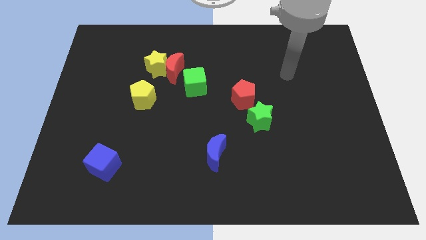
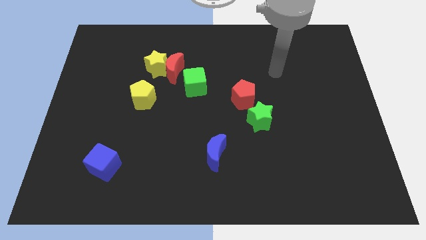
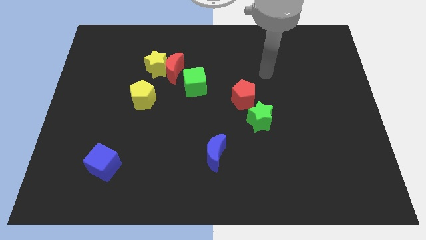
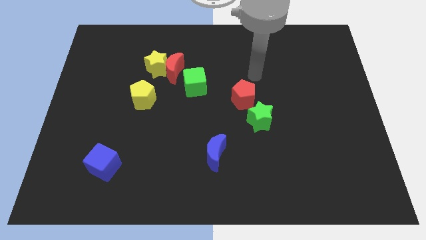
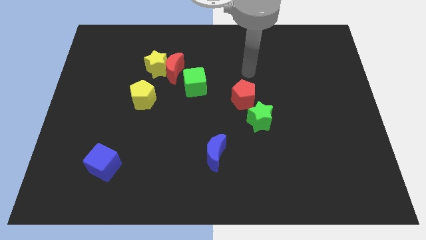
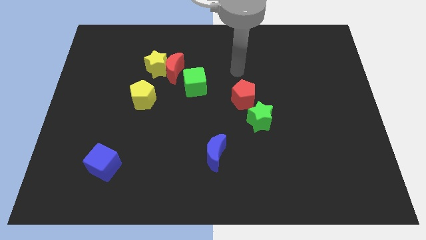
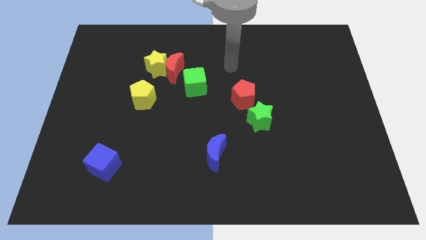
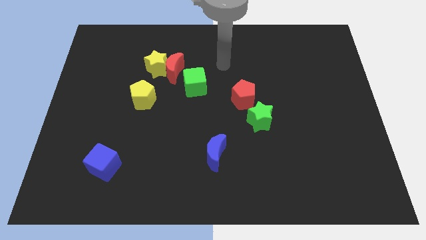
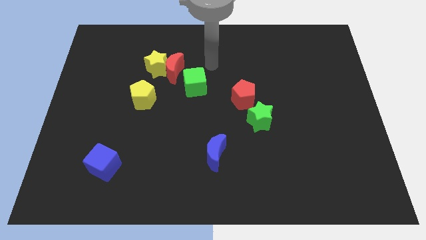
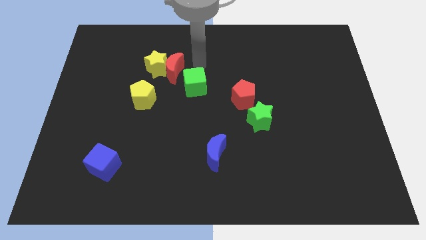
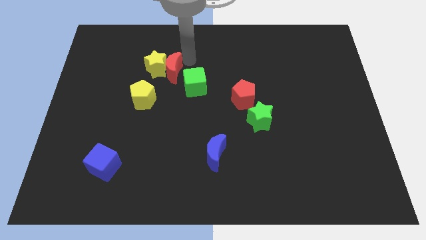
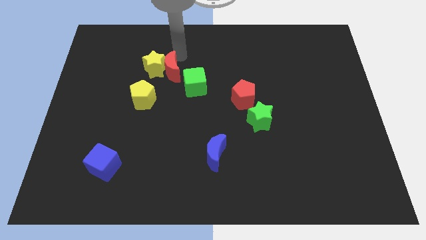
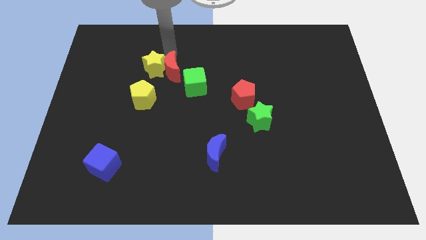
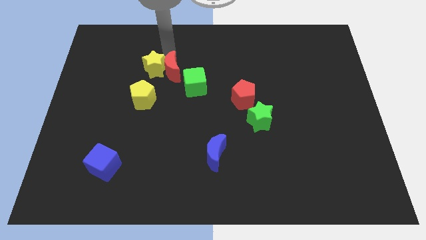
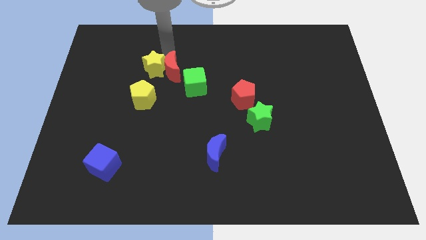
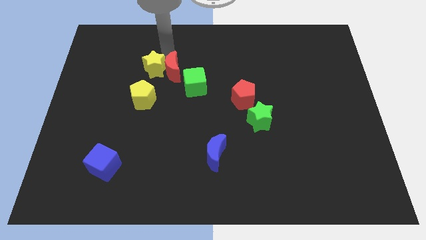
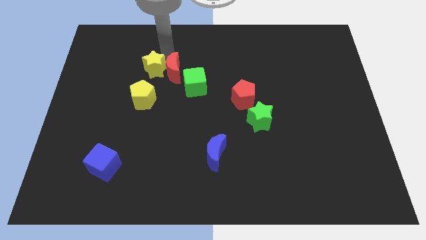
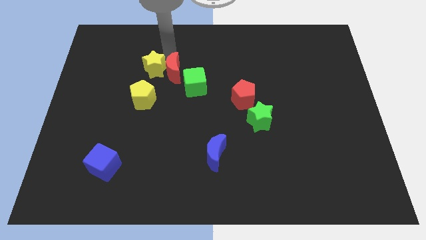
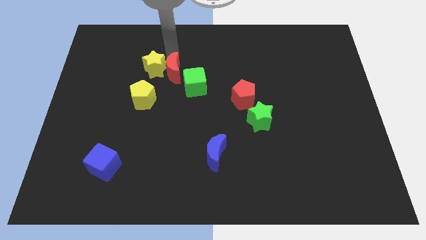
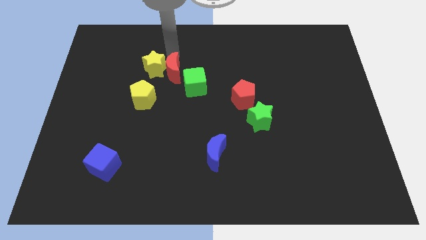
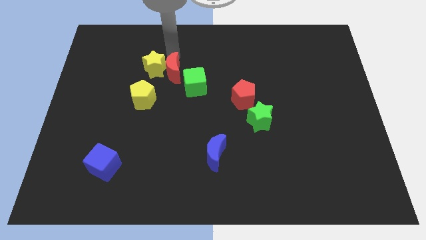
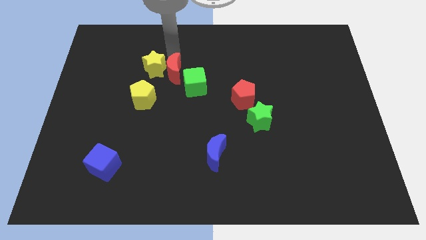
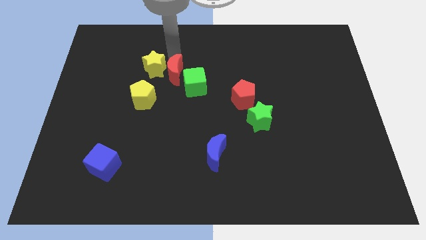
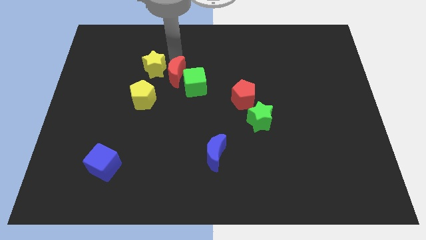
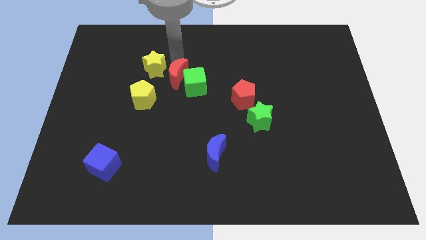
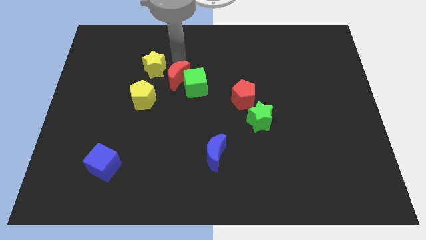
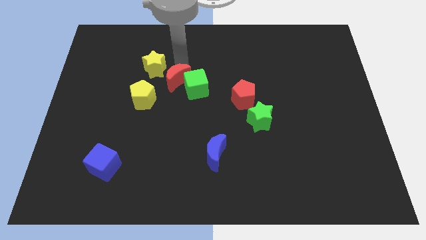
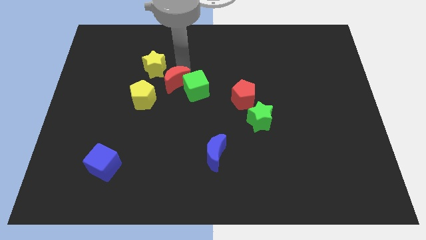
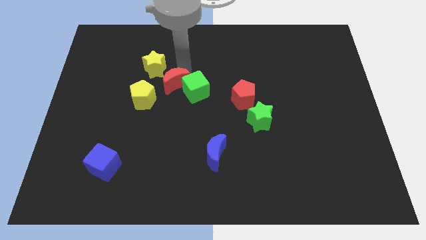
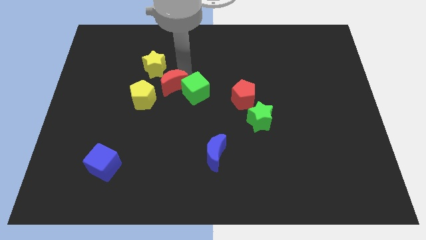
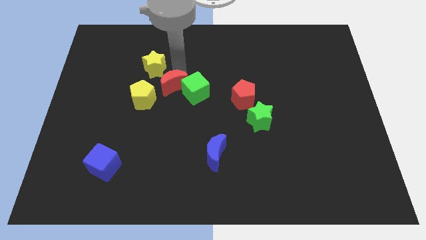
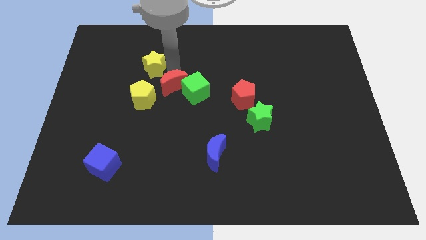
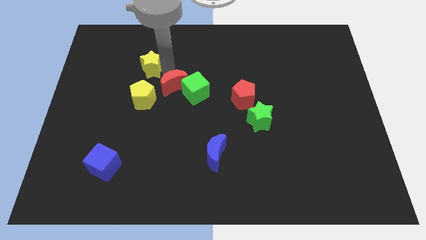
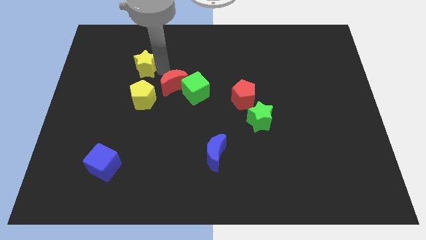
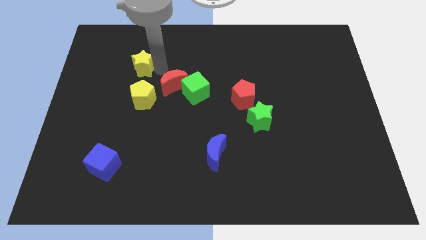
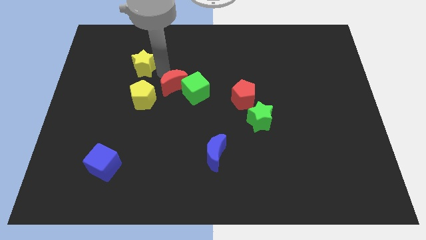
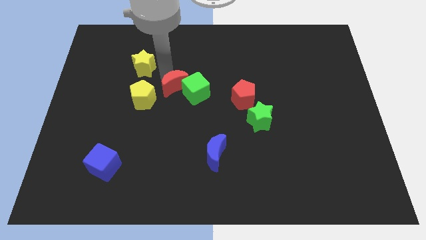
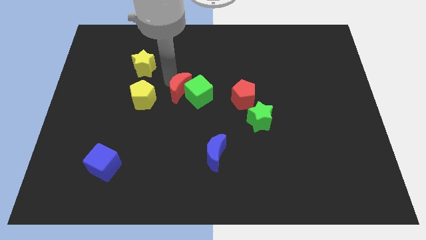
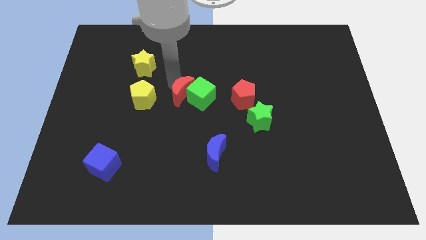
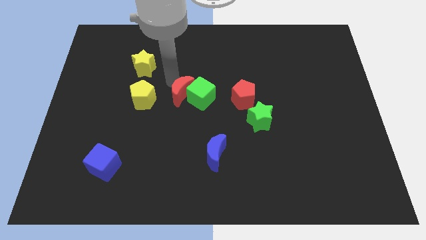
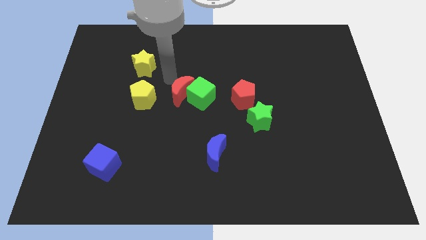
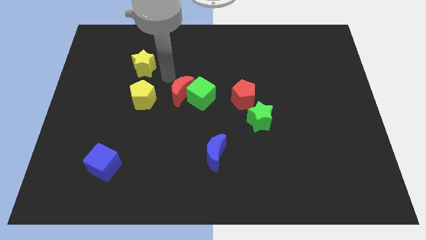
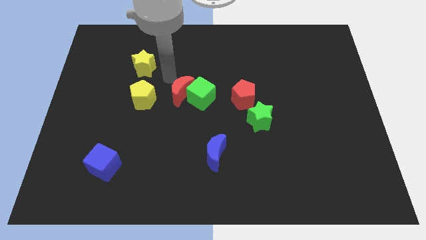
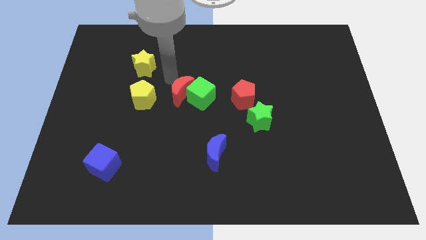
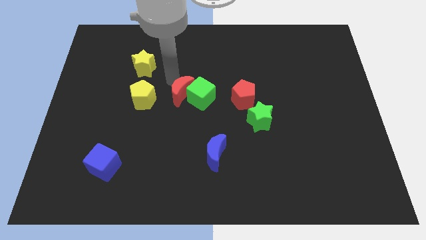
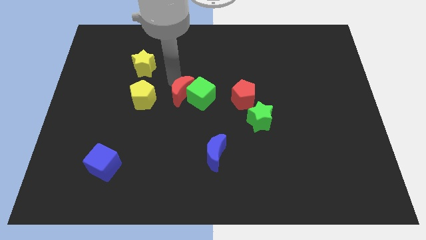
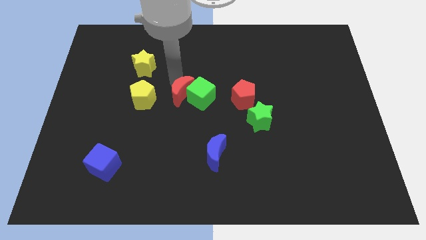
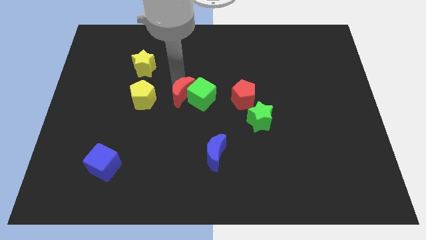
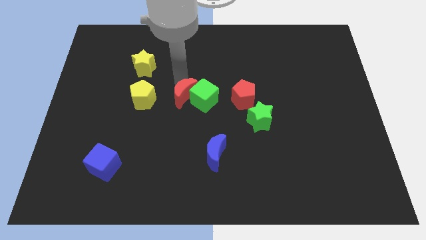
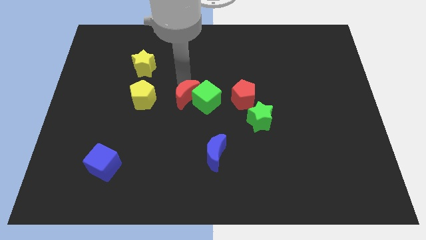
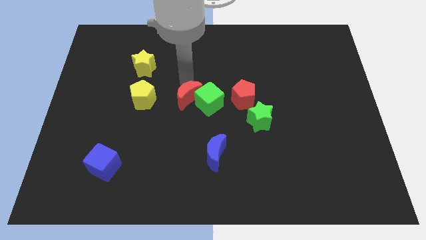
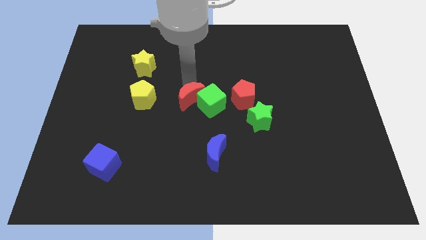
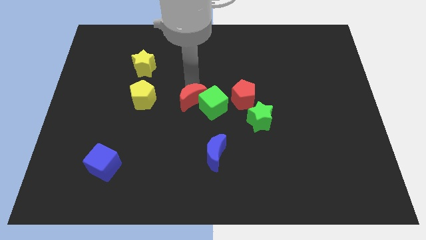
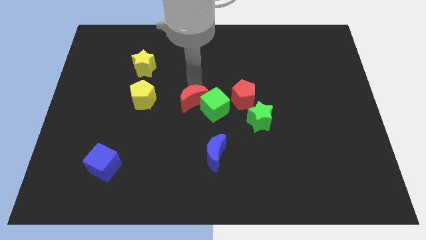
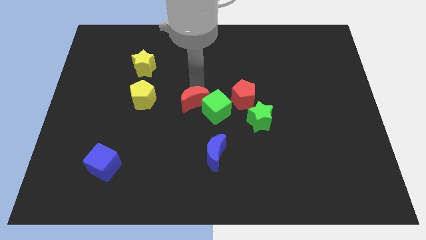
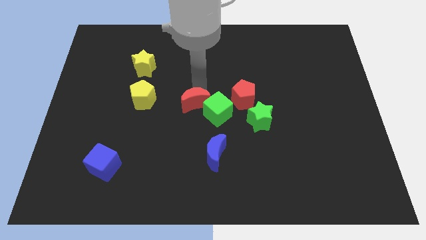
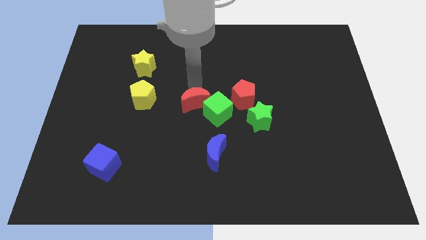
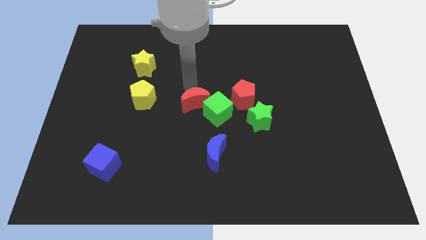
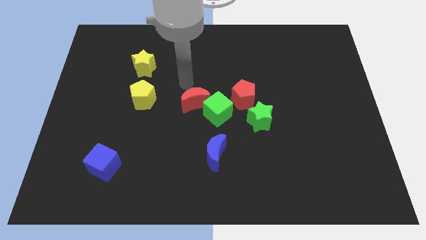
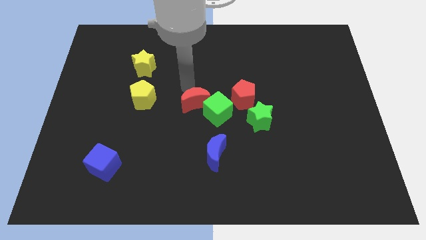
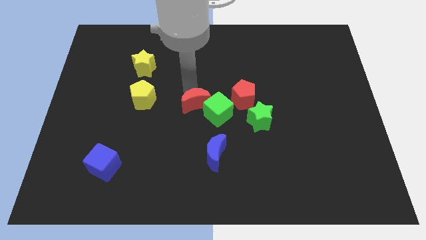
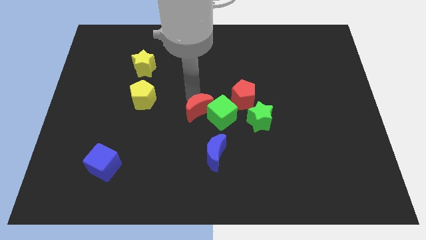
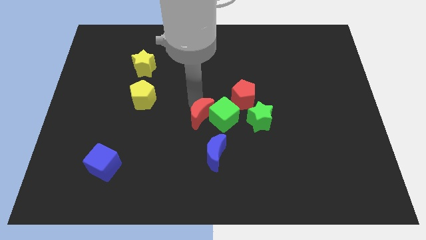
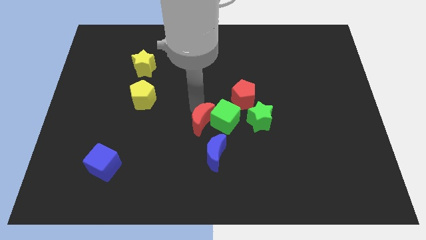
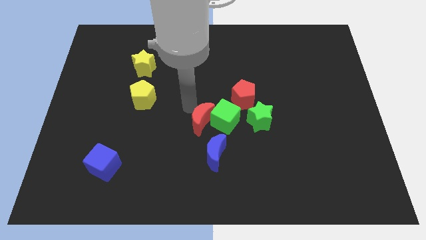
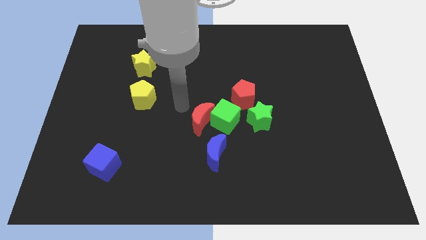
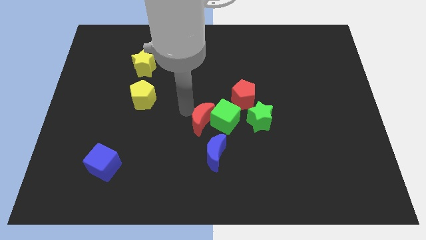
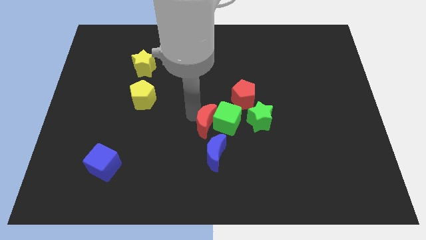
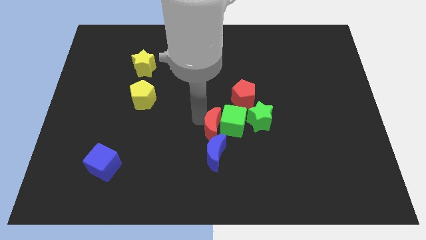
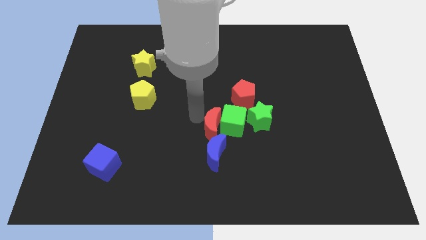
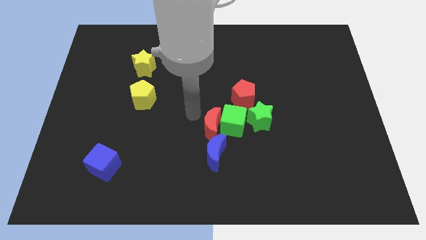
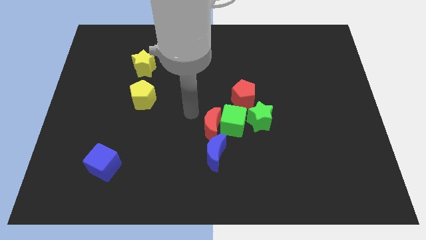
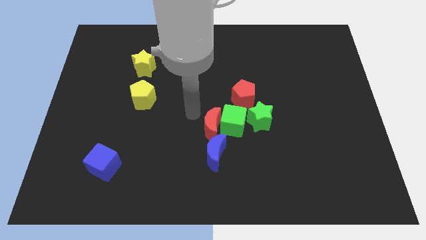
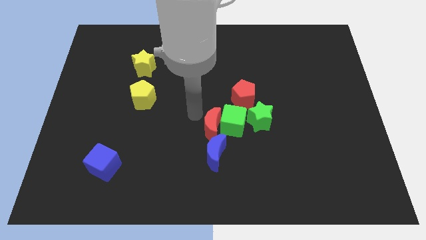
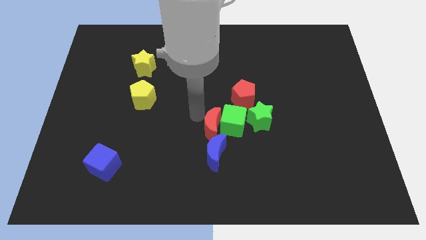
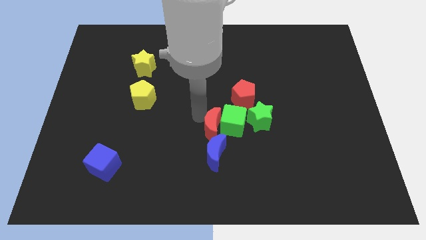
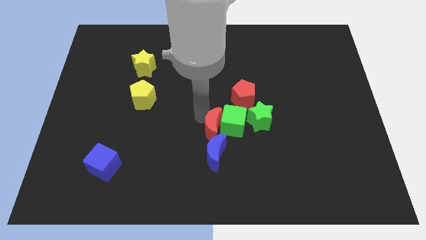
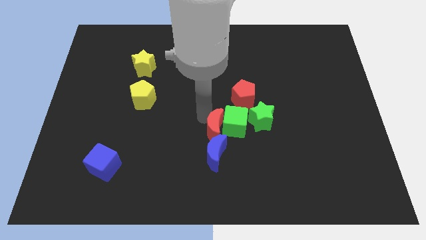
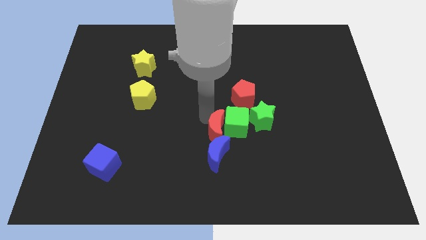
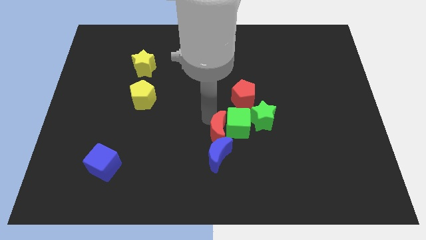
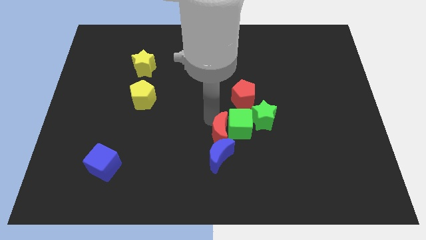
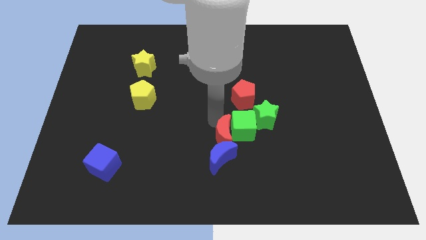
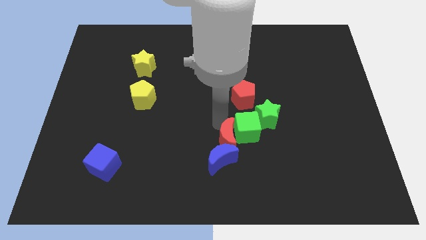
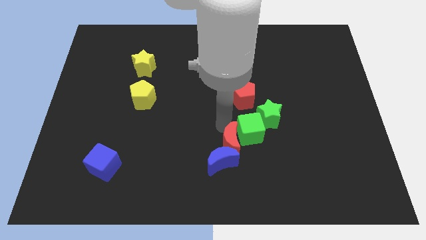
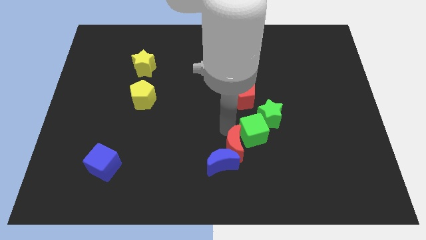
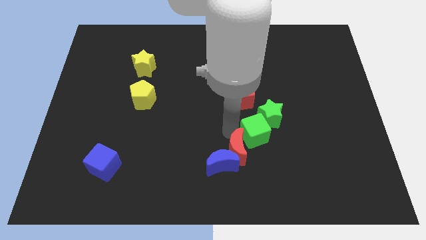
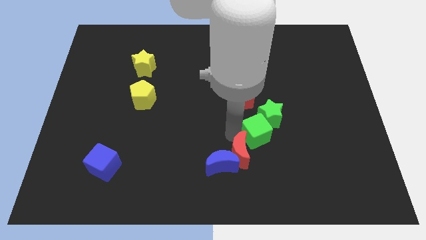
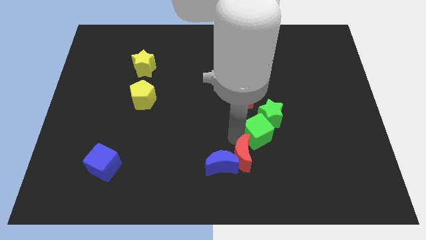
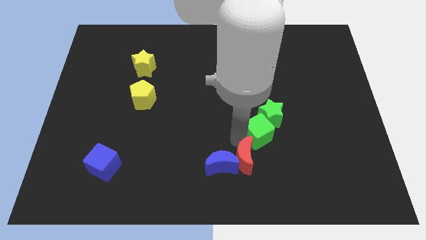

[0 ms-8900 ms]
move the red moon to the bottom right side of the blue moon
